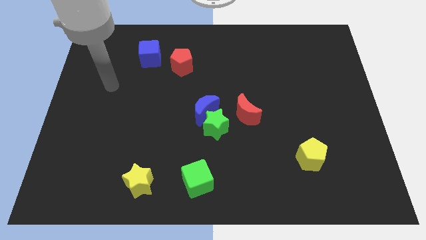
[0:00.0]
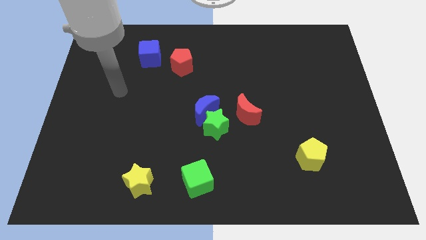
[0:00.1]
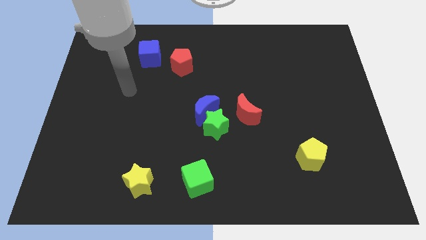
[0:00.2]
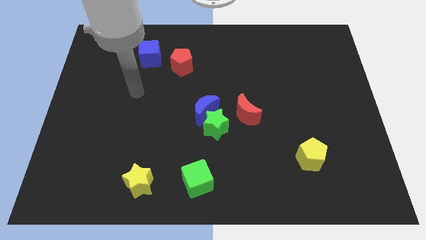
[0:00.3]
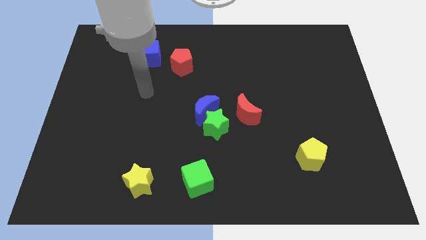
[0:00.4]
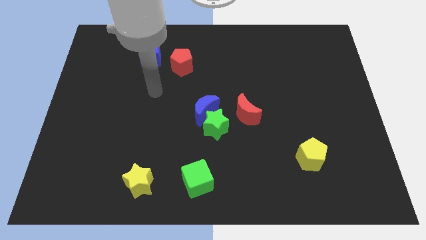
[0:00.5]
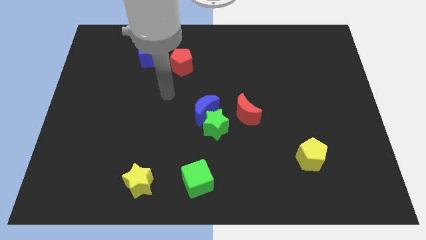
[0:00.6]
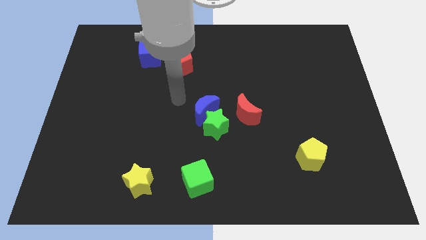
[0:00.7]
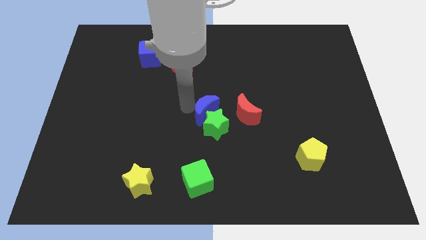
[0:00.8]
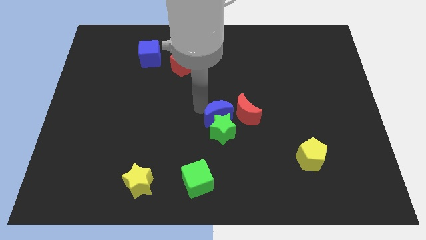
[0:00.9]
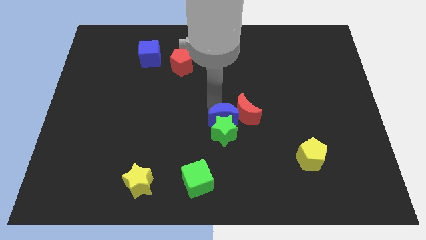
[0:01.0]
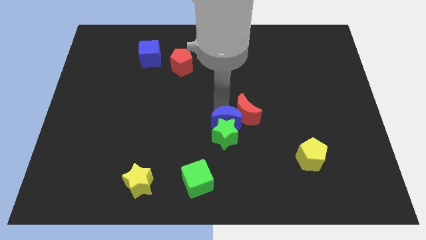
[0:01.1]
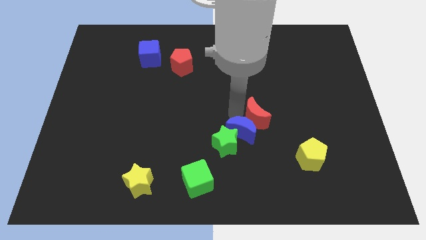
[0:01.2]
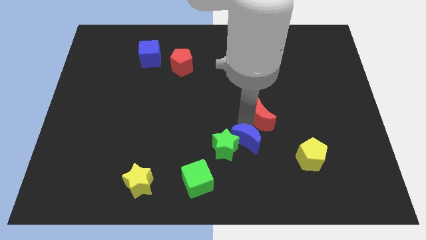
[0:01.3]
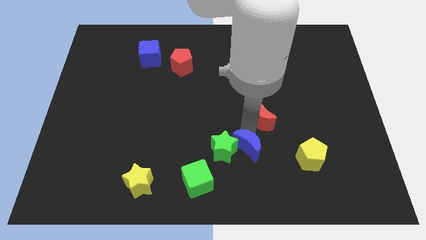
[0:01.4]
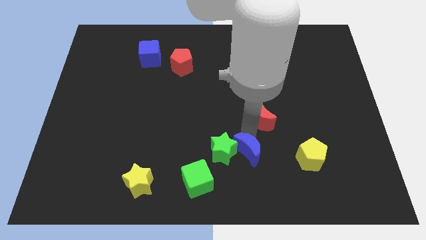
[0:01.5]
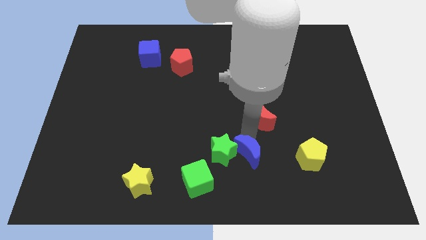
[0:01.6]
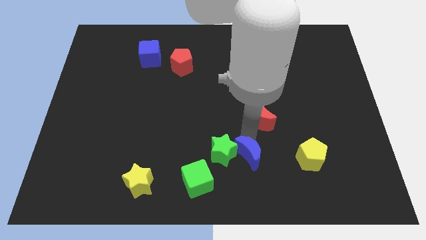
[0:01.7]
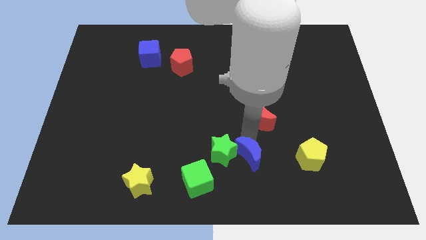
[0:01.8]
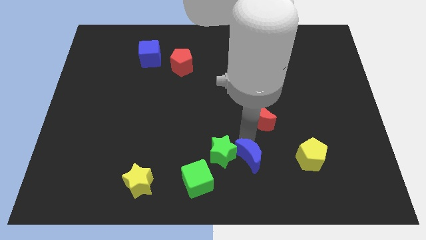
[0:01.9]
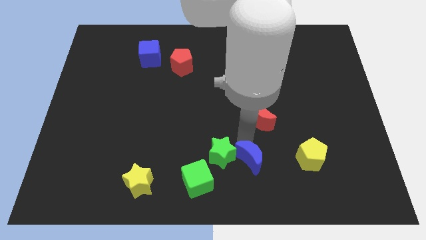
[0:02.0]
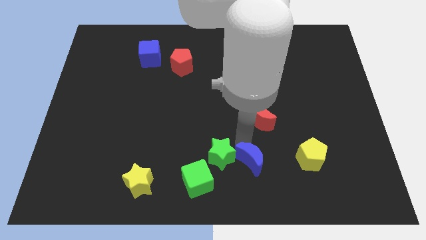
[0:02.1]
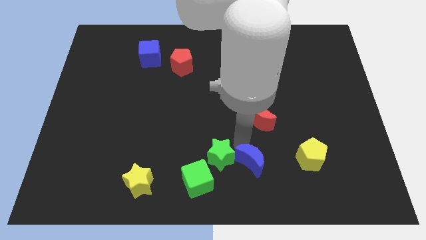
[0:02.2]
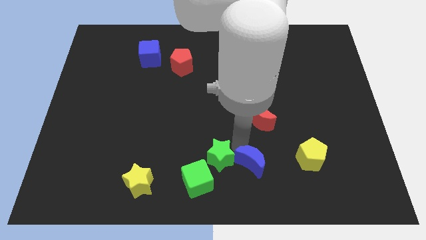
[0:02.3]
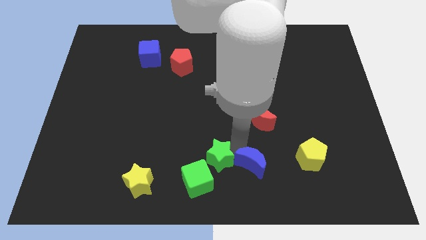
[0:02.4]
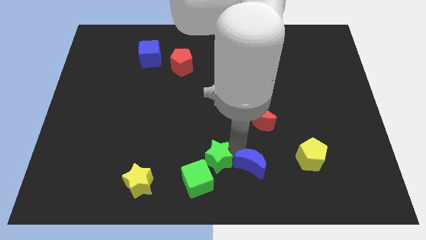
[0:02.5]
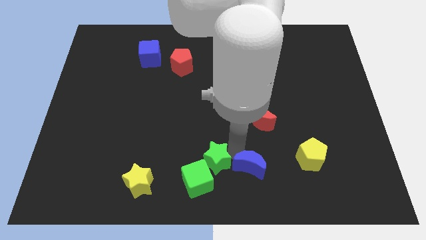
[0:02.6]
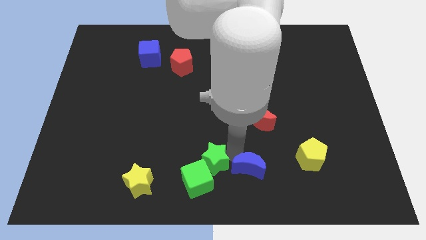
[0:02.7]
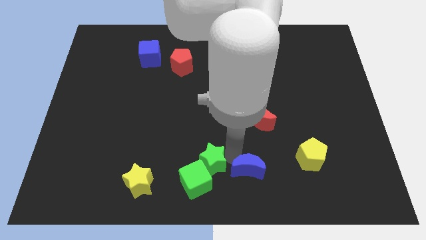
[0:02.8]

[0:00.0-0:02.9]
move the green star away from the blue moon and red moon

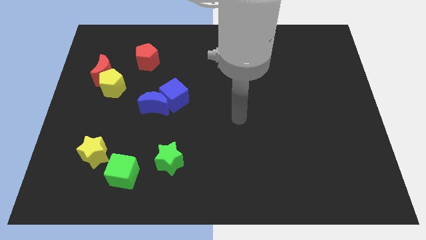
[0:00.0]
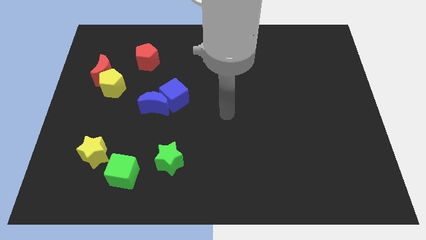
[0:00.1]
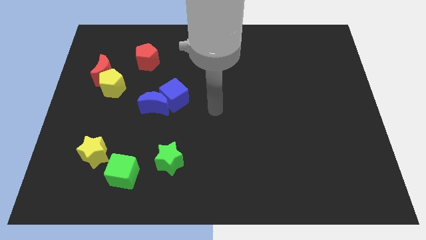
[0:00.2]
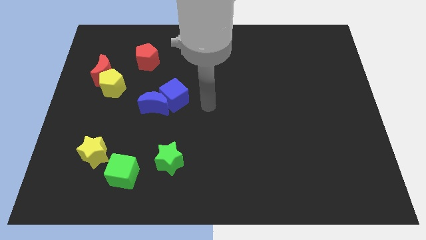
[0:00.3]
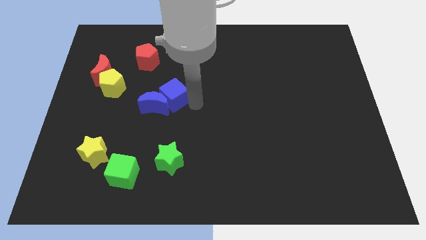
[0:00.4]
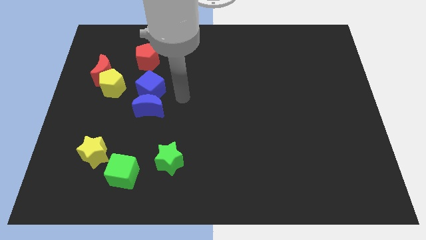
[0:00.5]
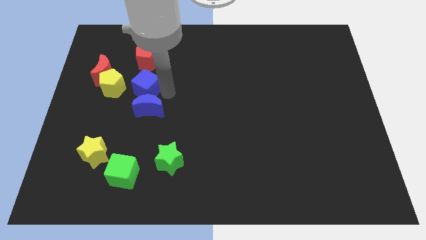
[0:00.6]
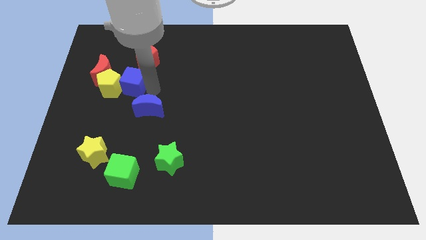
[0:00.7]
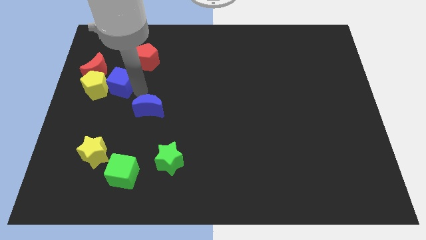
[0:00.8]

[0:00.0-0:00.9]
move the blue moon away from the blue cube

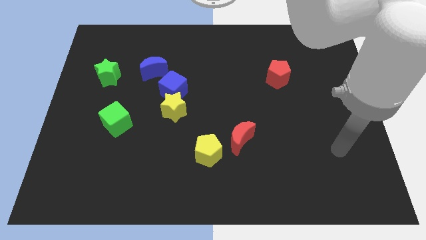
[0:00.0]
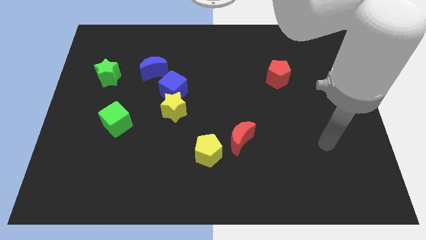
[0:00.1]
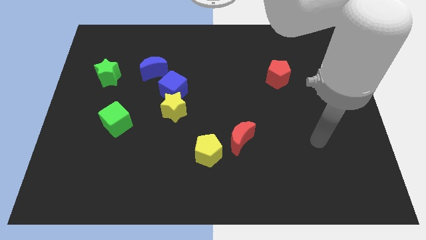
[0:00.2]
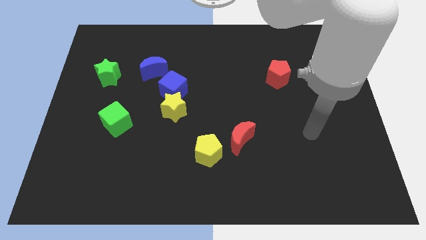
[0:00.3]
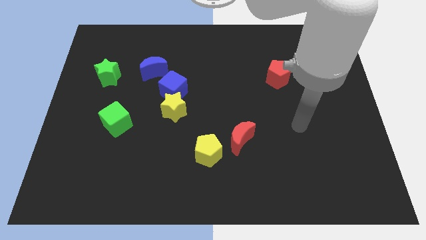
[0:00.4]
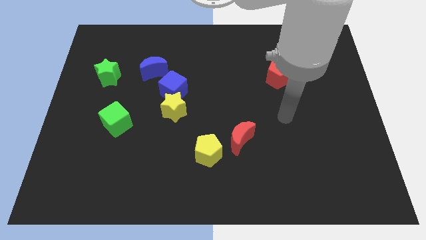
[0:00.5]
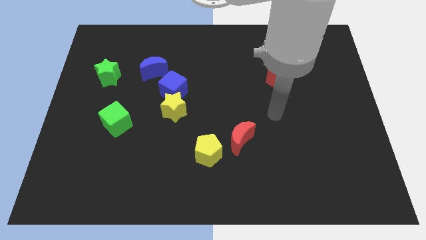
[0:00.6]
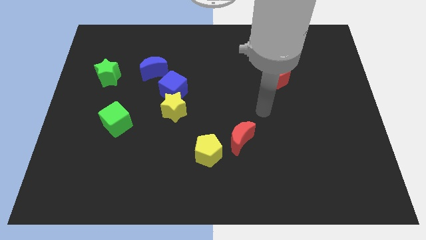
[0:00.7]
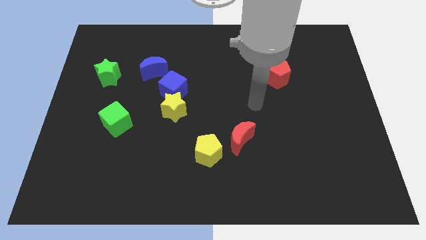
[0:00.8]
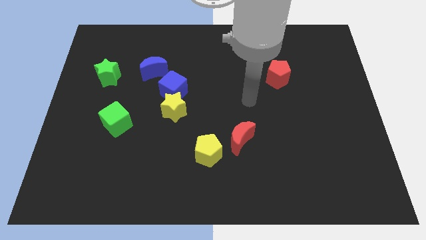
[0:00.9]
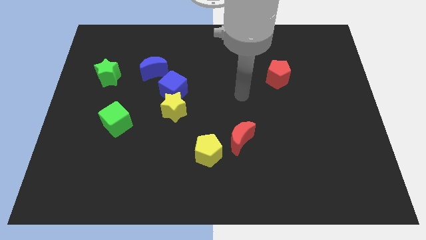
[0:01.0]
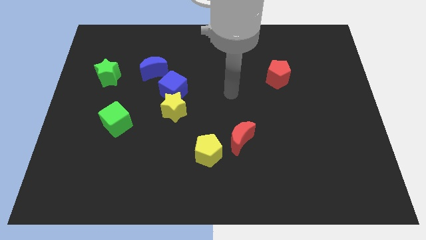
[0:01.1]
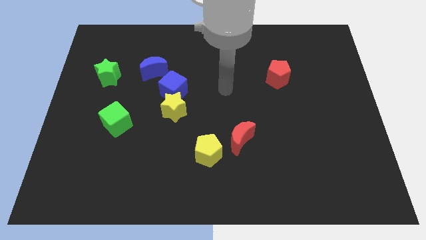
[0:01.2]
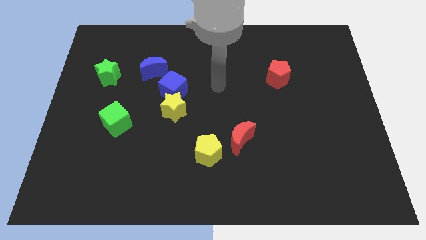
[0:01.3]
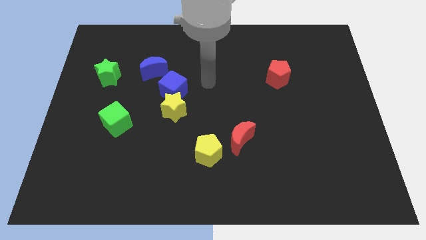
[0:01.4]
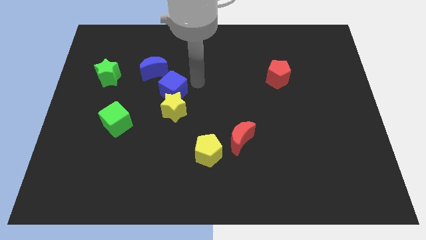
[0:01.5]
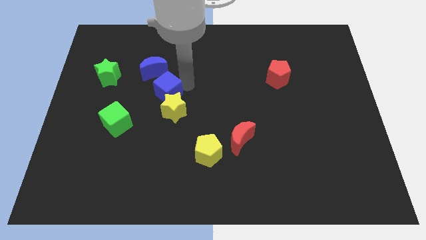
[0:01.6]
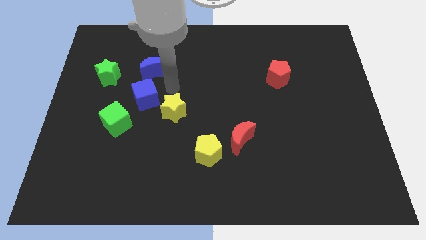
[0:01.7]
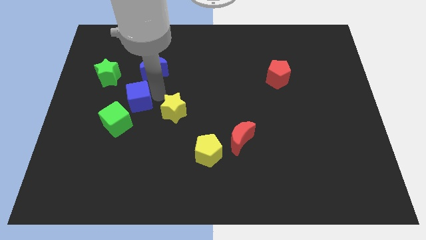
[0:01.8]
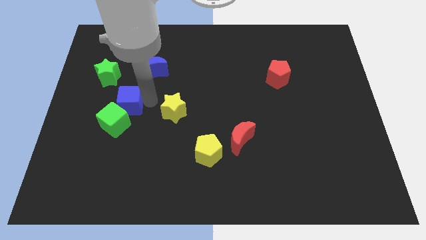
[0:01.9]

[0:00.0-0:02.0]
pull the yellow star apart from the blue cube

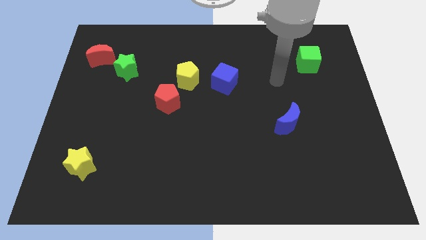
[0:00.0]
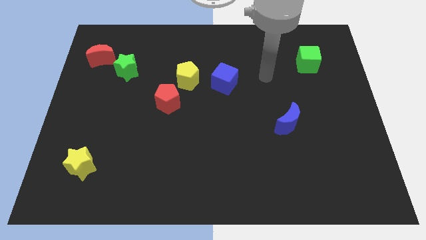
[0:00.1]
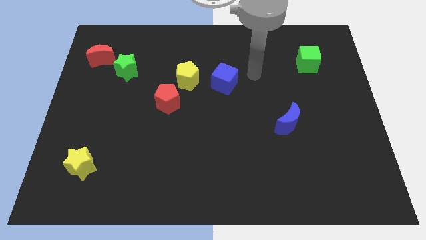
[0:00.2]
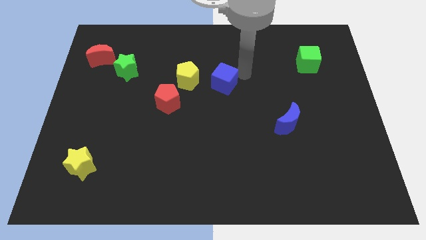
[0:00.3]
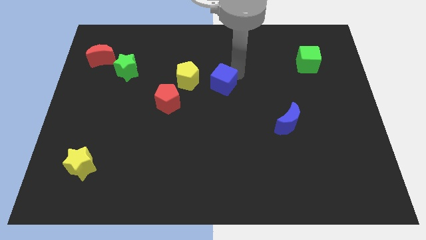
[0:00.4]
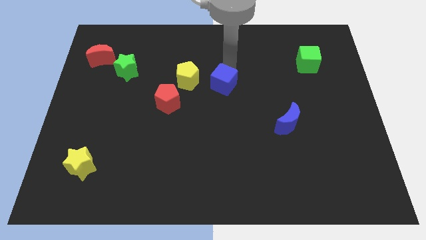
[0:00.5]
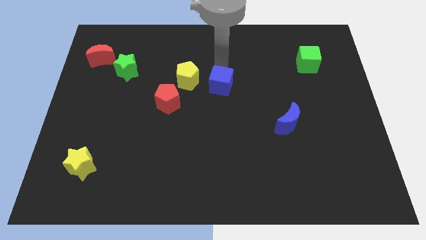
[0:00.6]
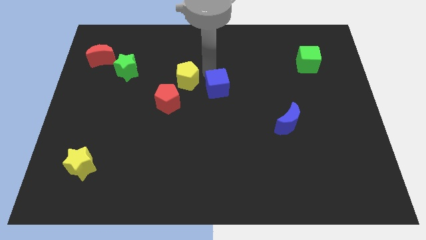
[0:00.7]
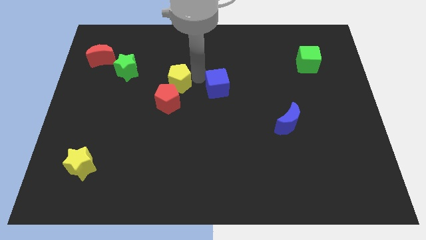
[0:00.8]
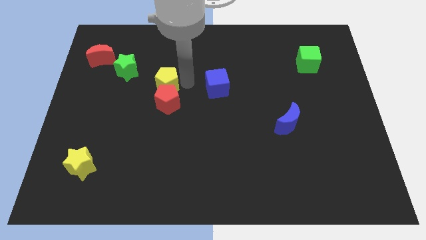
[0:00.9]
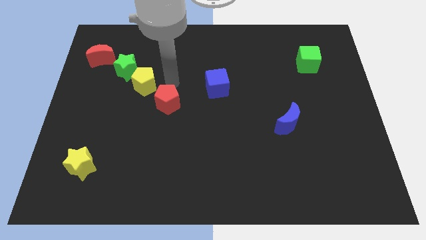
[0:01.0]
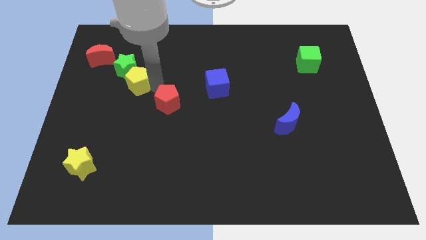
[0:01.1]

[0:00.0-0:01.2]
pull the red pentagon apart from the yellow pentagon

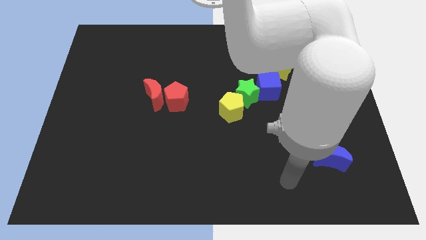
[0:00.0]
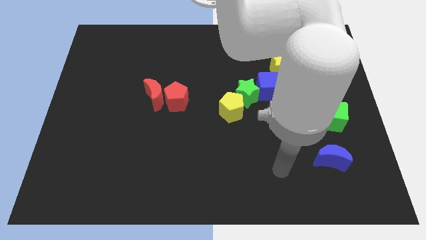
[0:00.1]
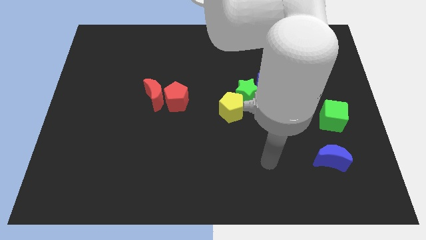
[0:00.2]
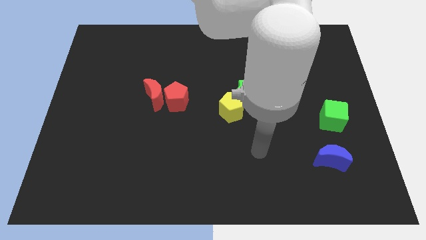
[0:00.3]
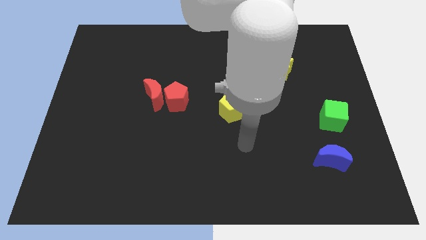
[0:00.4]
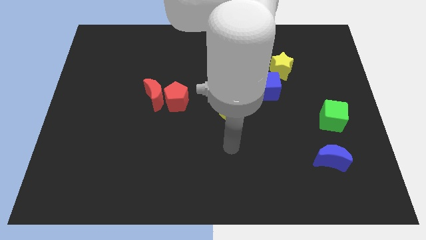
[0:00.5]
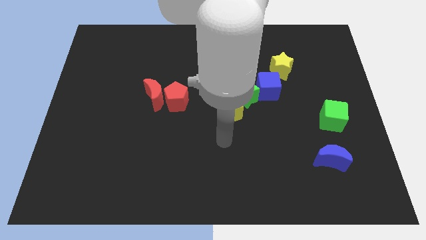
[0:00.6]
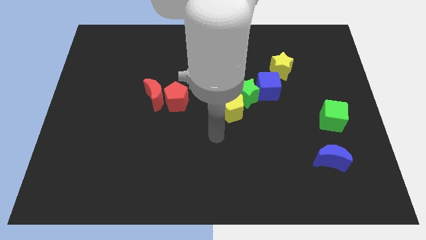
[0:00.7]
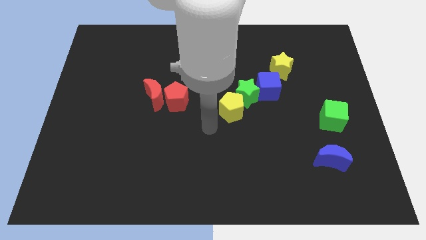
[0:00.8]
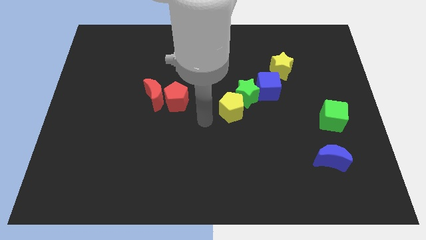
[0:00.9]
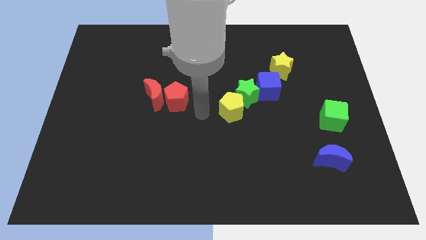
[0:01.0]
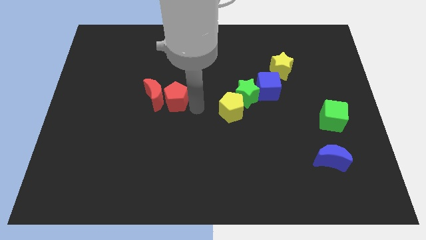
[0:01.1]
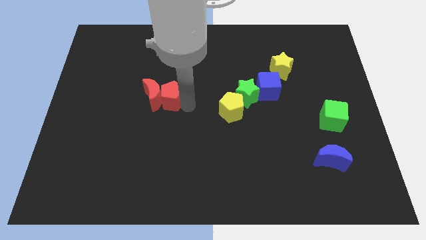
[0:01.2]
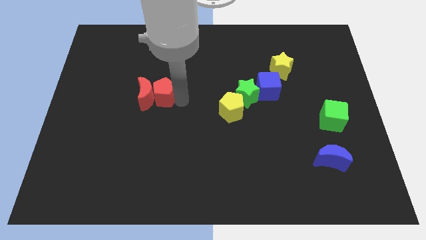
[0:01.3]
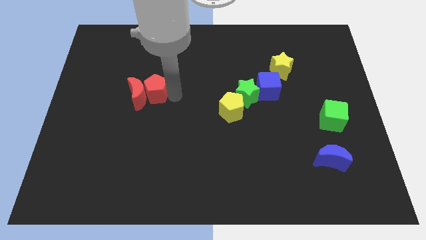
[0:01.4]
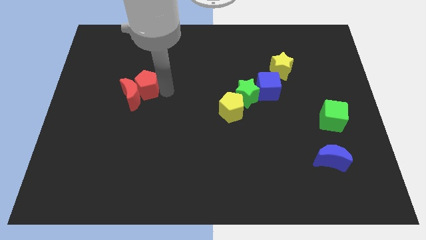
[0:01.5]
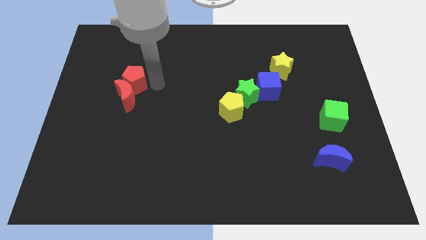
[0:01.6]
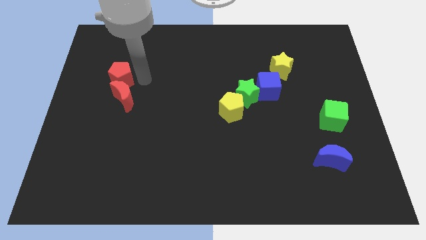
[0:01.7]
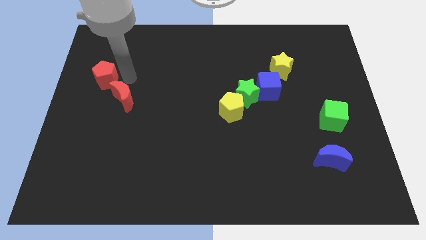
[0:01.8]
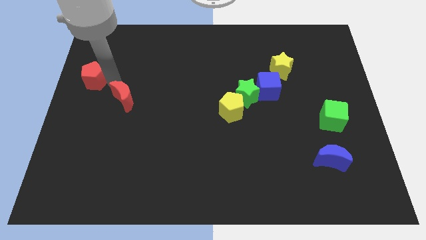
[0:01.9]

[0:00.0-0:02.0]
pull the red moon apart from the red pentagon

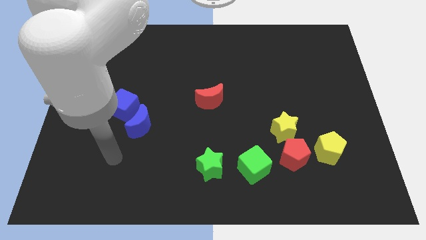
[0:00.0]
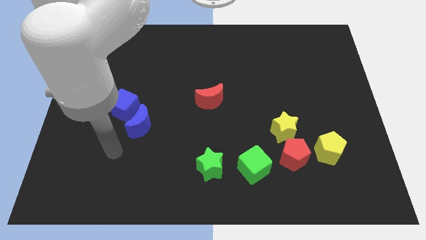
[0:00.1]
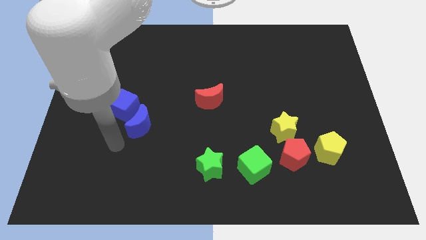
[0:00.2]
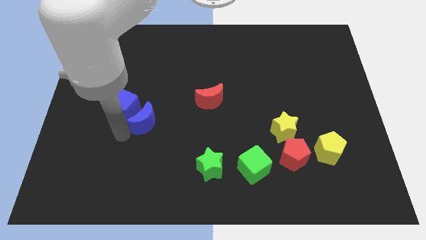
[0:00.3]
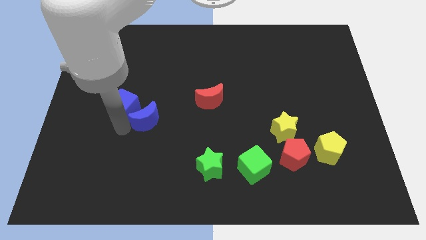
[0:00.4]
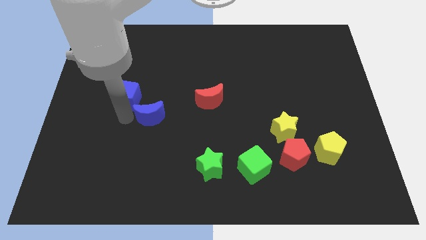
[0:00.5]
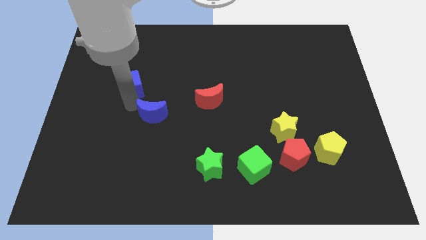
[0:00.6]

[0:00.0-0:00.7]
separate the blue moon from the blue cube
